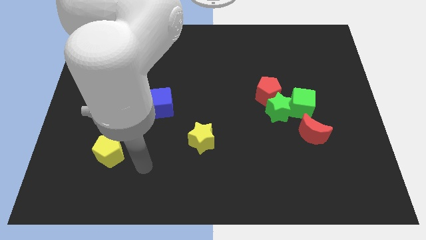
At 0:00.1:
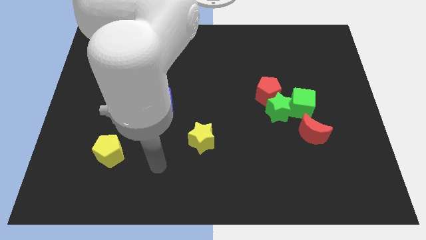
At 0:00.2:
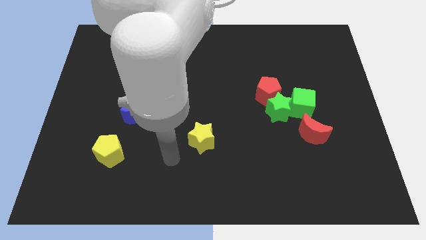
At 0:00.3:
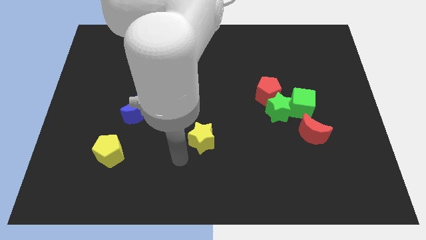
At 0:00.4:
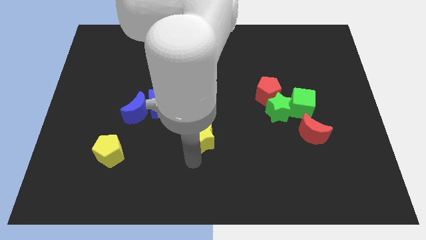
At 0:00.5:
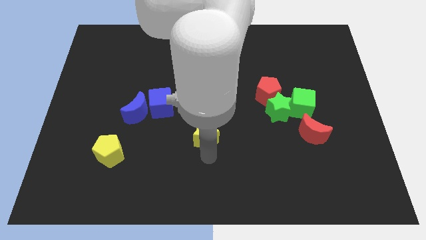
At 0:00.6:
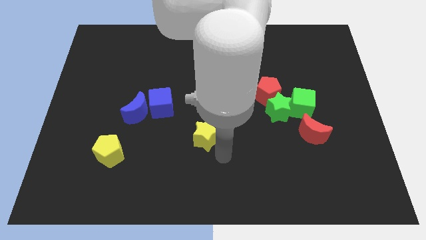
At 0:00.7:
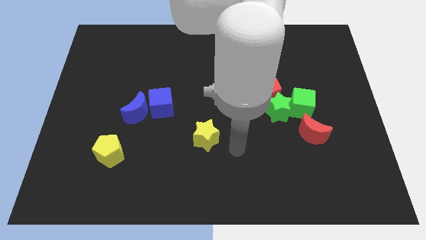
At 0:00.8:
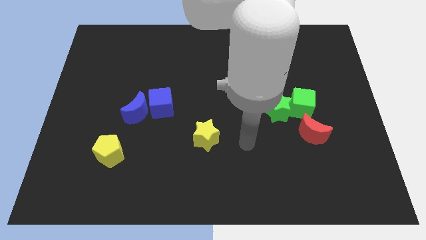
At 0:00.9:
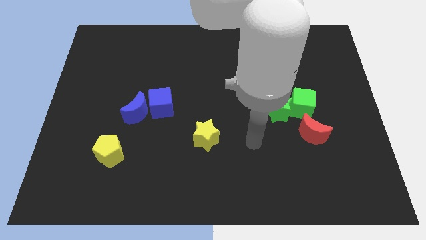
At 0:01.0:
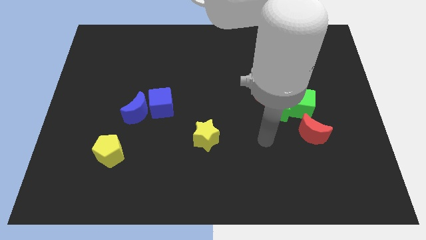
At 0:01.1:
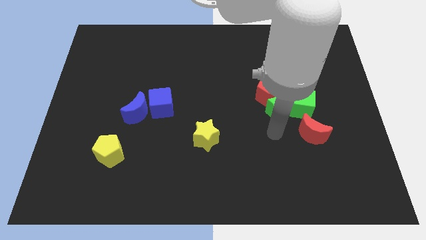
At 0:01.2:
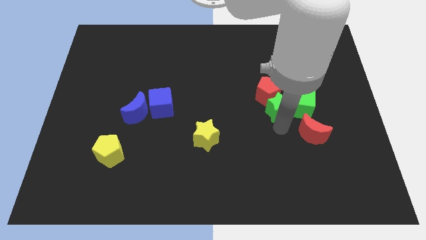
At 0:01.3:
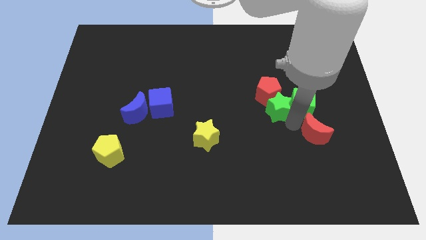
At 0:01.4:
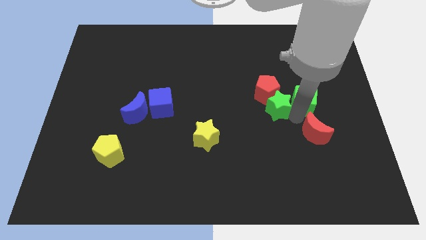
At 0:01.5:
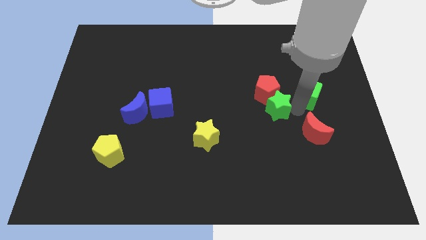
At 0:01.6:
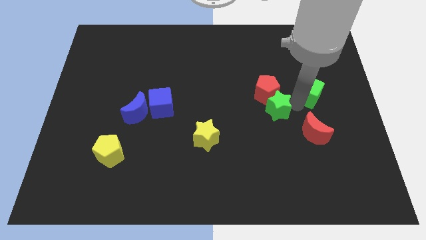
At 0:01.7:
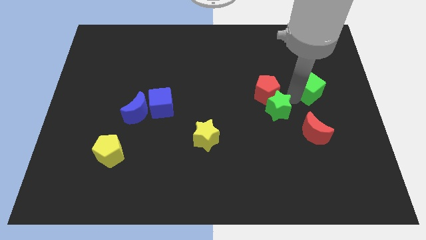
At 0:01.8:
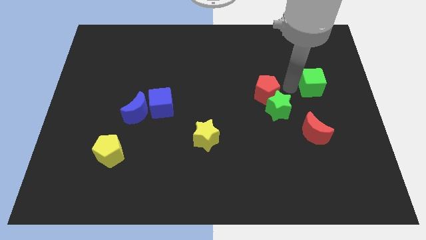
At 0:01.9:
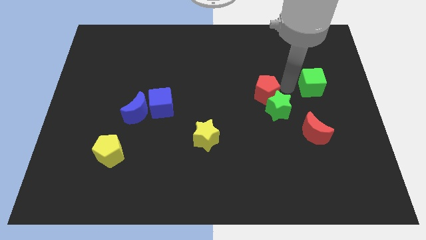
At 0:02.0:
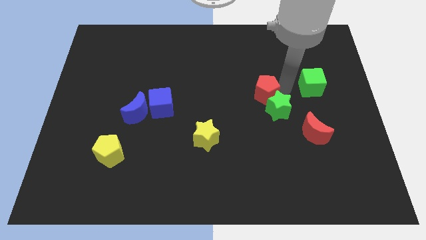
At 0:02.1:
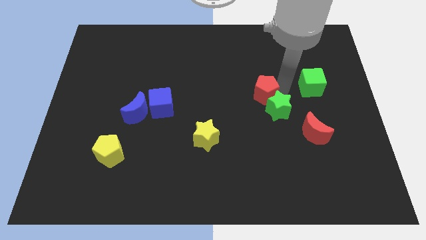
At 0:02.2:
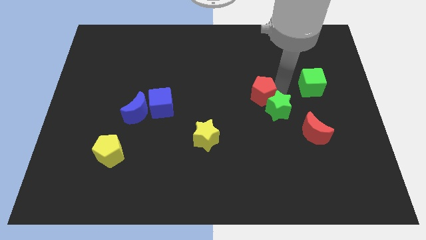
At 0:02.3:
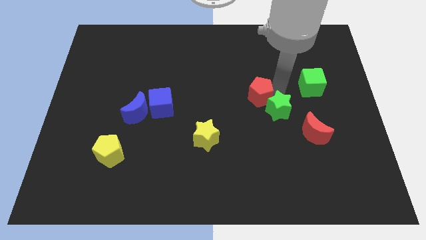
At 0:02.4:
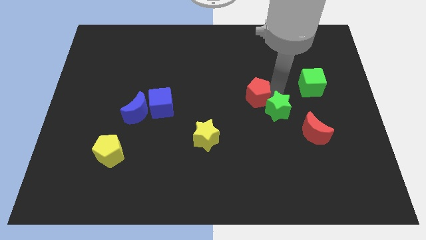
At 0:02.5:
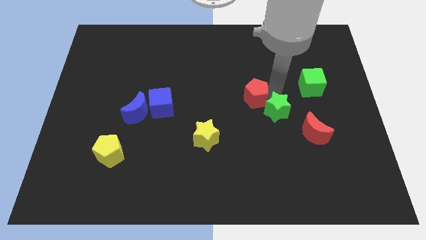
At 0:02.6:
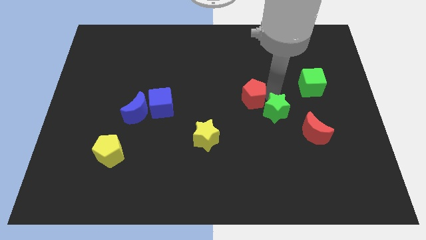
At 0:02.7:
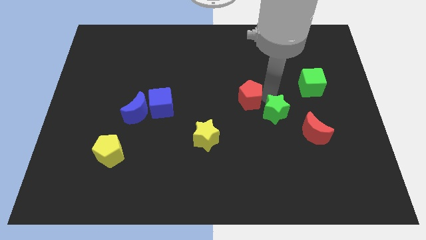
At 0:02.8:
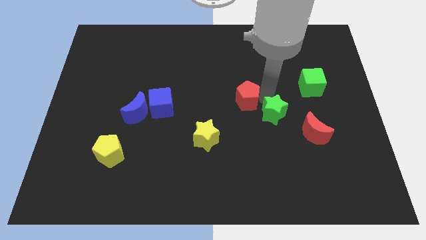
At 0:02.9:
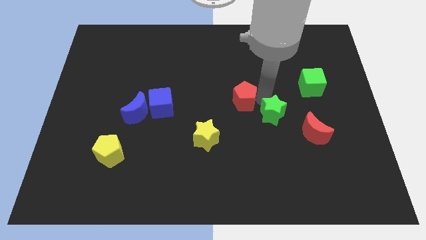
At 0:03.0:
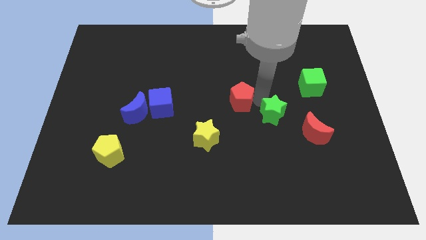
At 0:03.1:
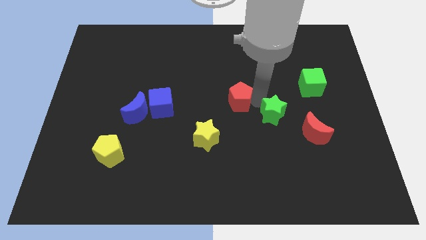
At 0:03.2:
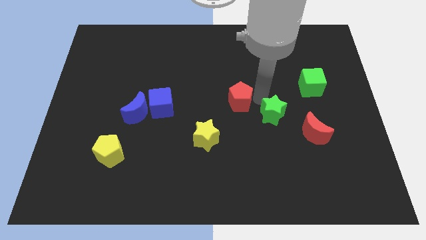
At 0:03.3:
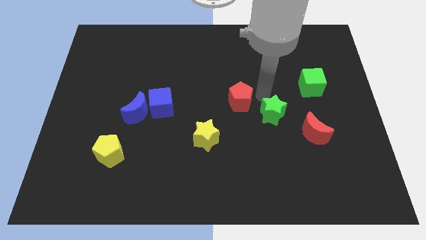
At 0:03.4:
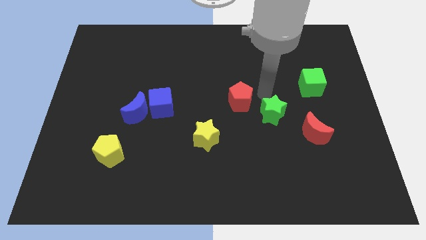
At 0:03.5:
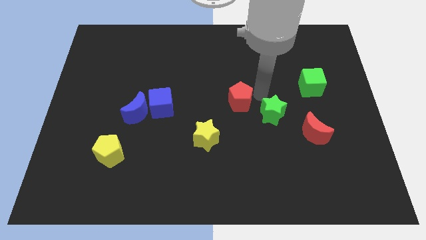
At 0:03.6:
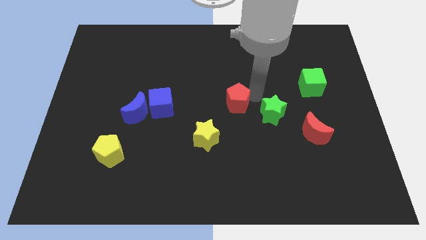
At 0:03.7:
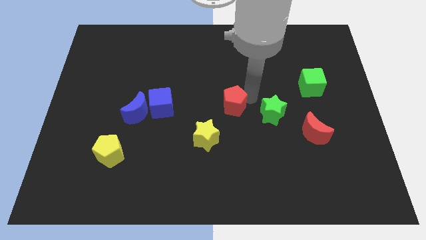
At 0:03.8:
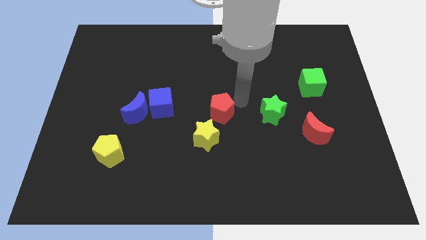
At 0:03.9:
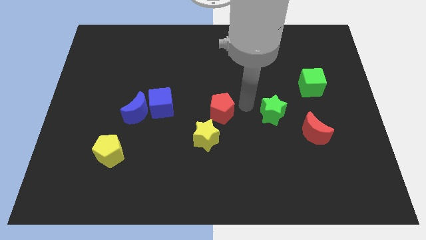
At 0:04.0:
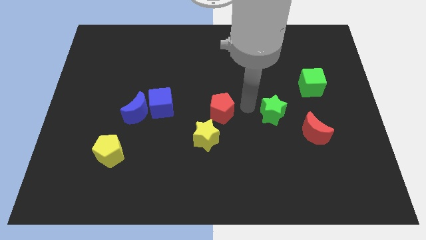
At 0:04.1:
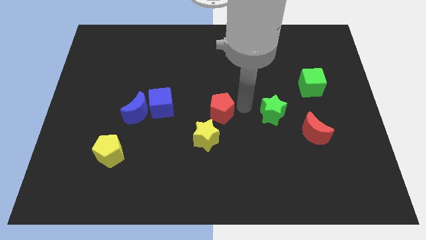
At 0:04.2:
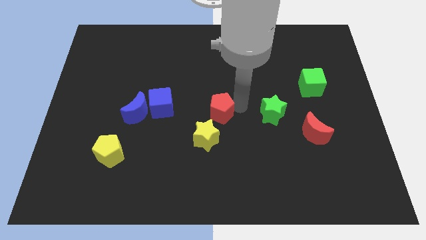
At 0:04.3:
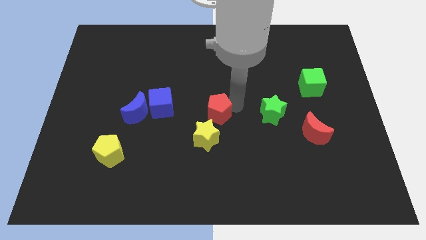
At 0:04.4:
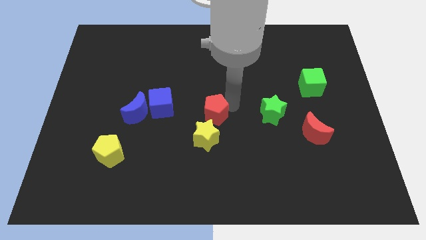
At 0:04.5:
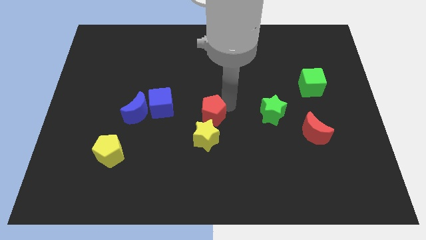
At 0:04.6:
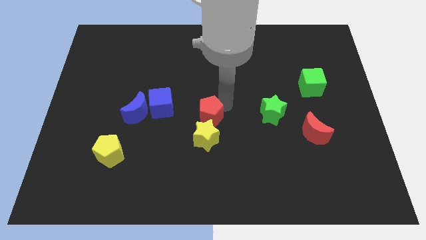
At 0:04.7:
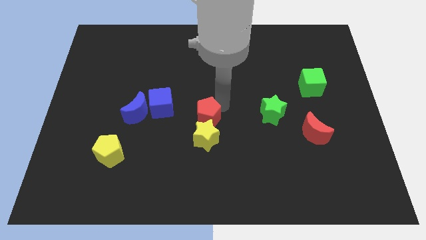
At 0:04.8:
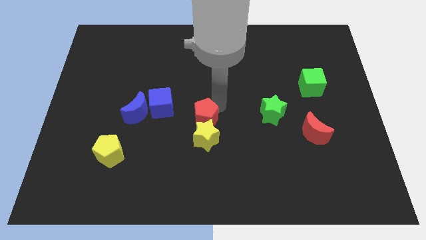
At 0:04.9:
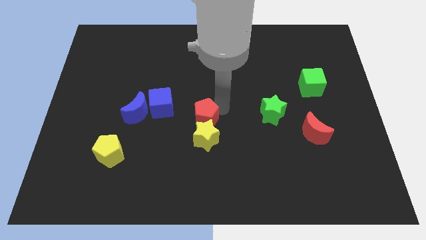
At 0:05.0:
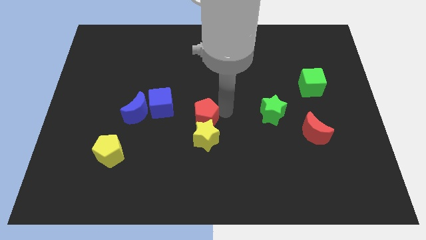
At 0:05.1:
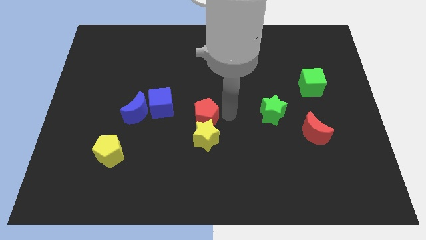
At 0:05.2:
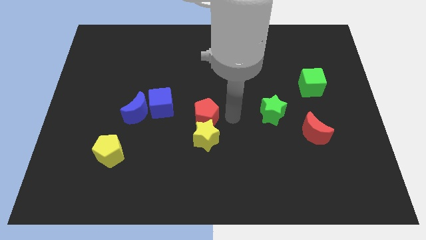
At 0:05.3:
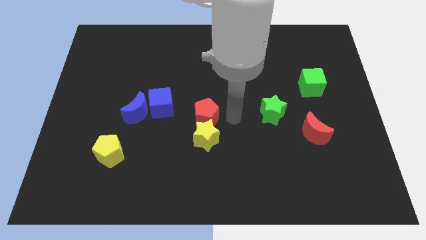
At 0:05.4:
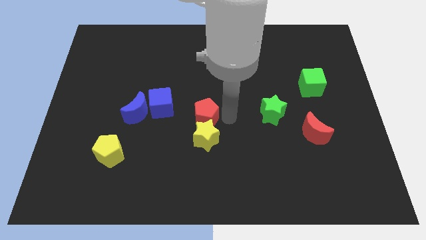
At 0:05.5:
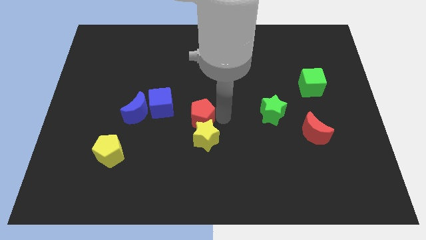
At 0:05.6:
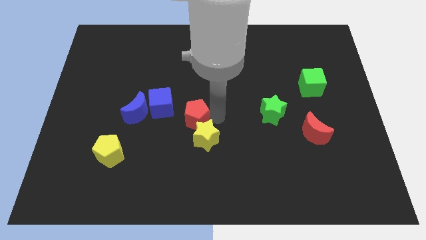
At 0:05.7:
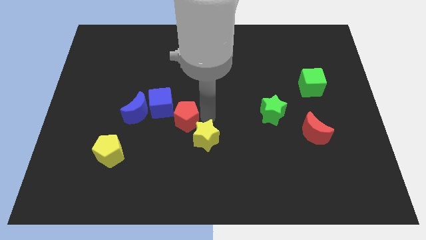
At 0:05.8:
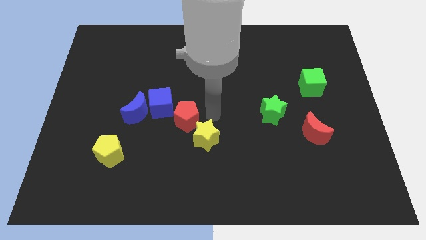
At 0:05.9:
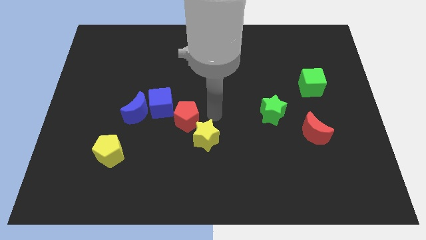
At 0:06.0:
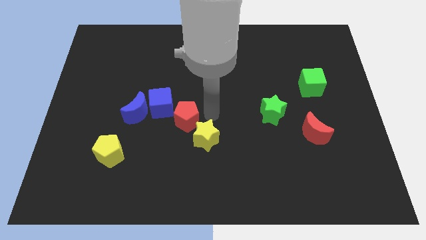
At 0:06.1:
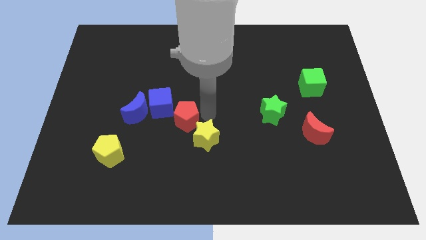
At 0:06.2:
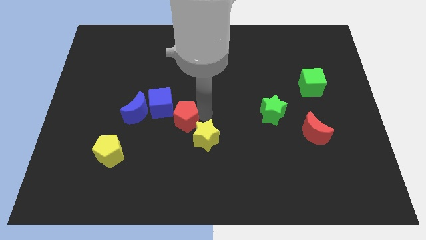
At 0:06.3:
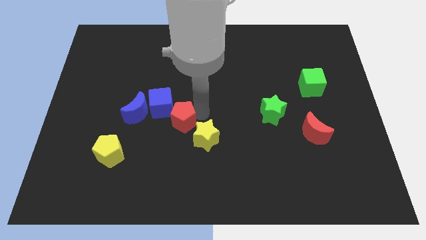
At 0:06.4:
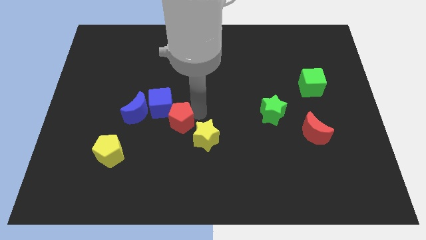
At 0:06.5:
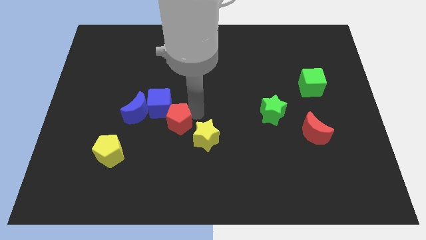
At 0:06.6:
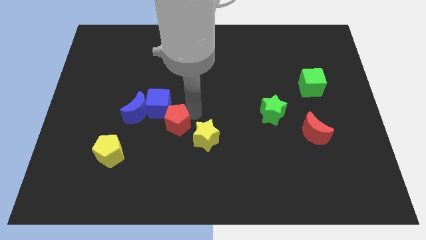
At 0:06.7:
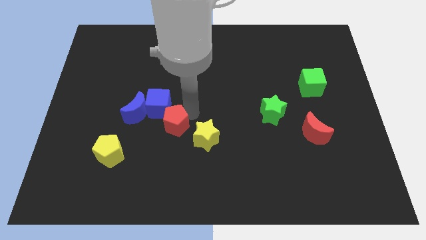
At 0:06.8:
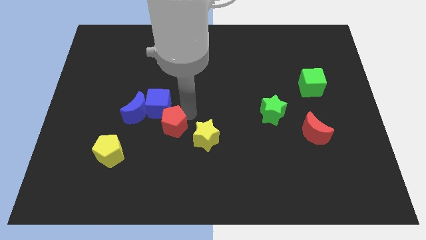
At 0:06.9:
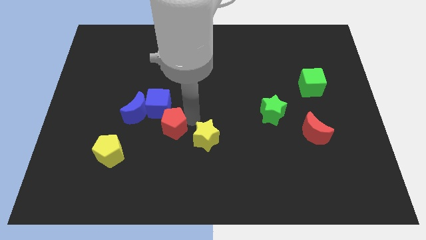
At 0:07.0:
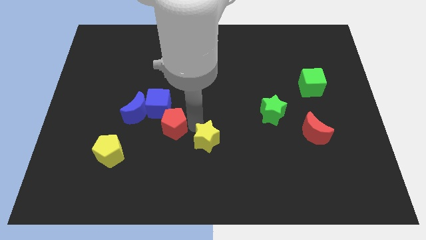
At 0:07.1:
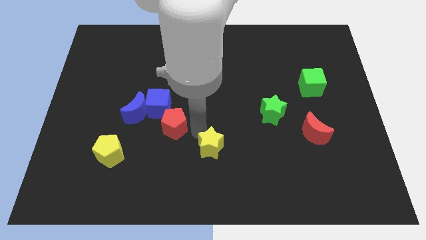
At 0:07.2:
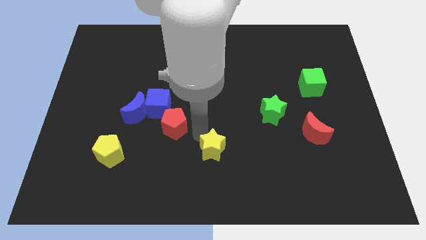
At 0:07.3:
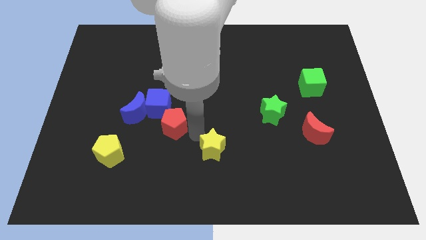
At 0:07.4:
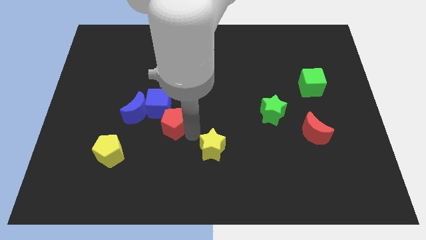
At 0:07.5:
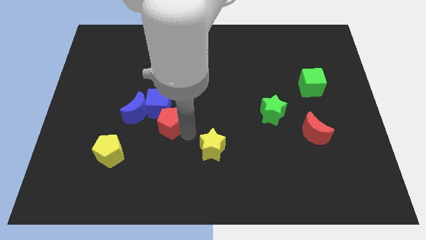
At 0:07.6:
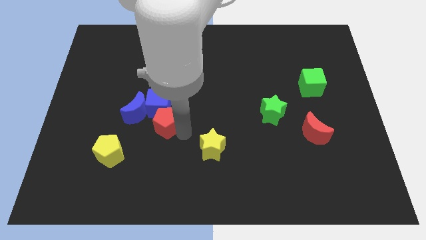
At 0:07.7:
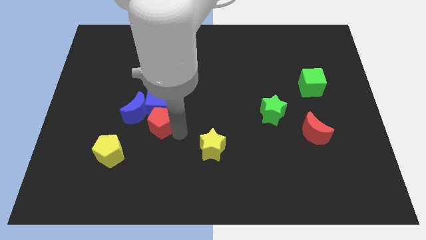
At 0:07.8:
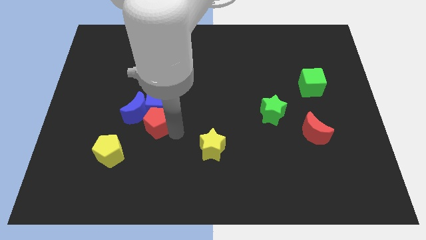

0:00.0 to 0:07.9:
push the red pentagon to the blue moon
